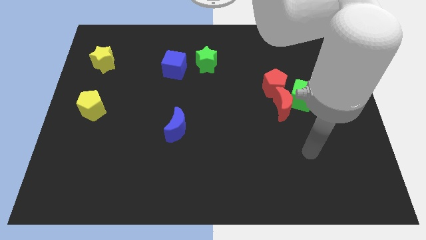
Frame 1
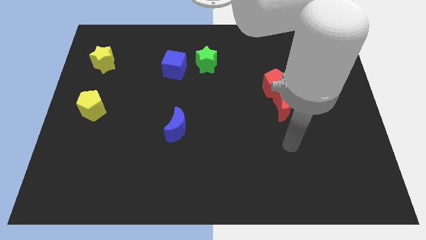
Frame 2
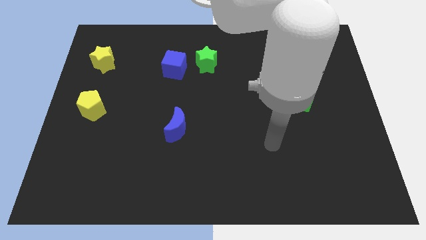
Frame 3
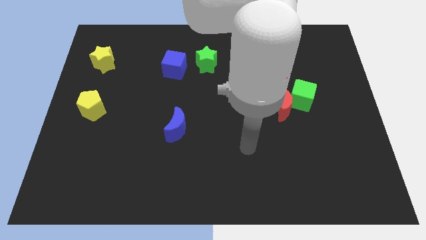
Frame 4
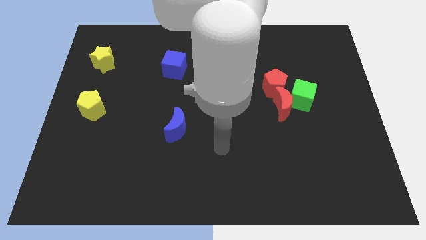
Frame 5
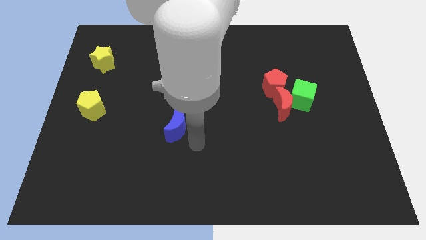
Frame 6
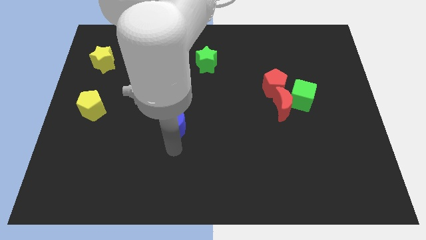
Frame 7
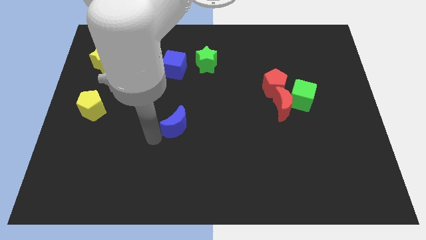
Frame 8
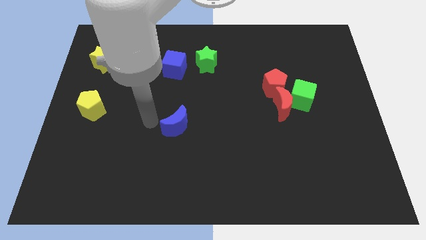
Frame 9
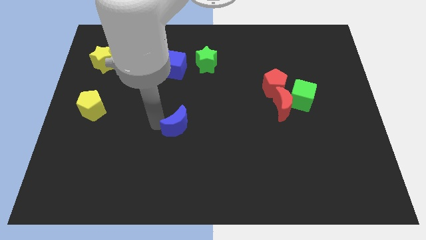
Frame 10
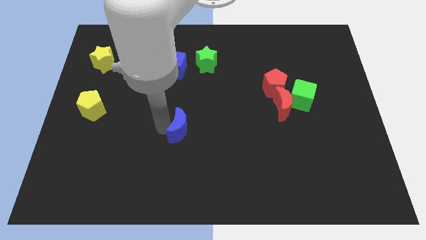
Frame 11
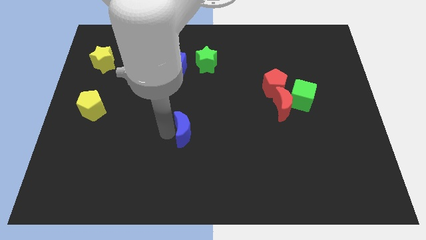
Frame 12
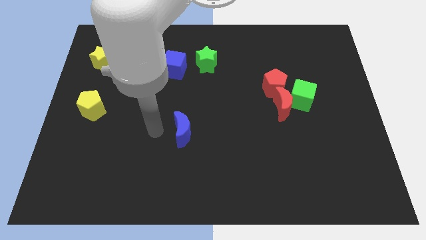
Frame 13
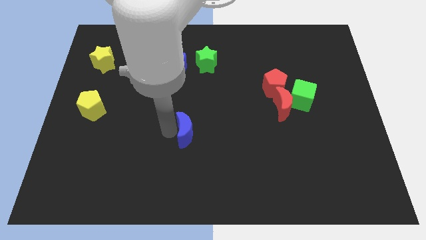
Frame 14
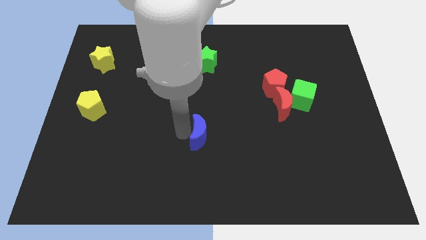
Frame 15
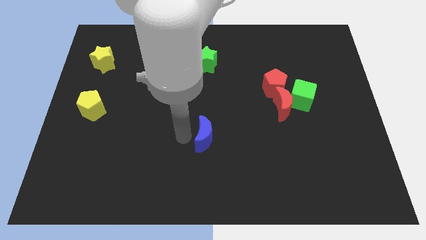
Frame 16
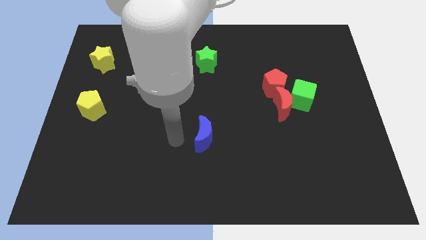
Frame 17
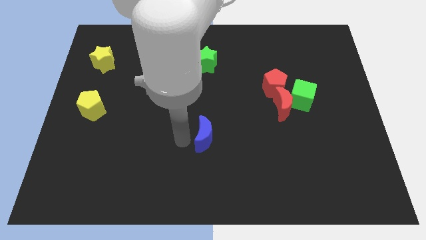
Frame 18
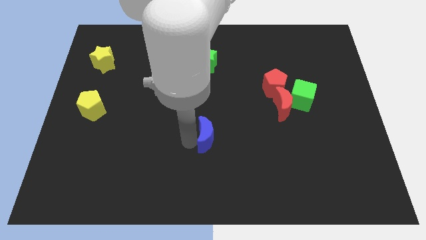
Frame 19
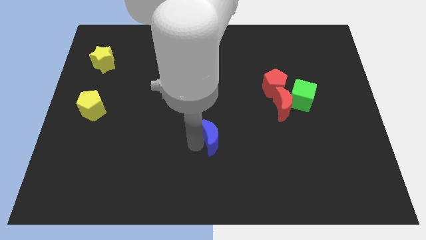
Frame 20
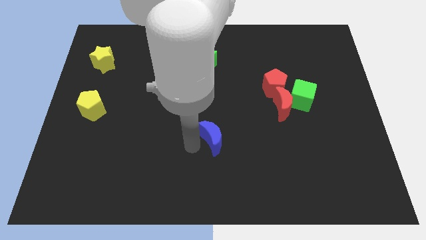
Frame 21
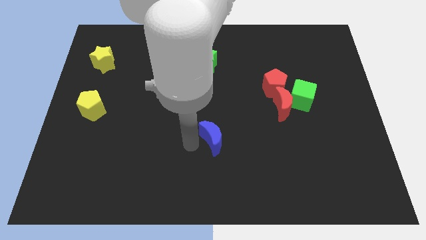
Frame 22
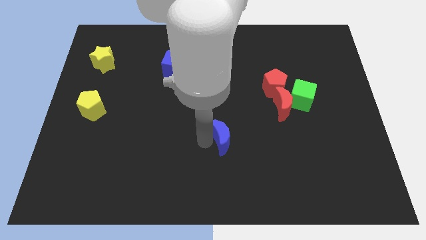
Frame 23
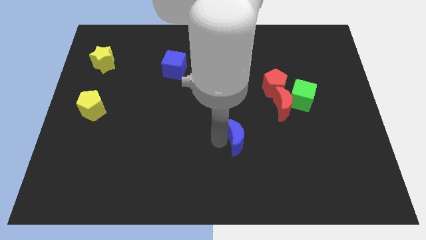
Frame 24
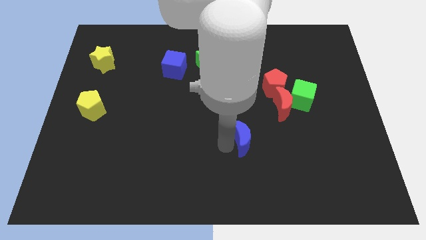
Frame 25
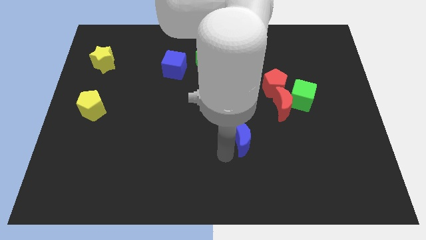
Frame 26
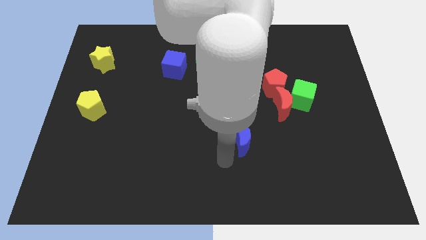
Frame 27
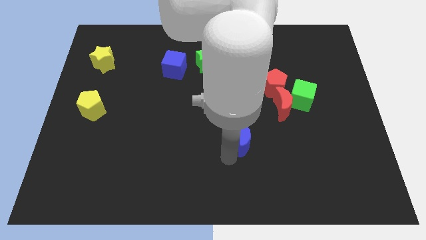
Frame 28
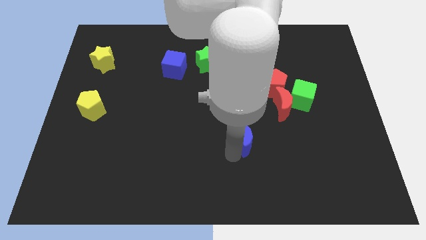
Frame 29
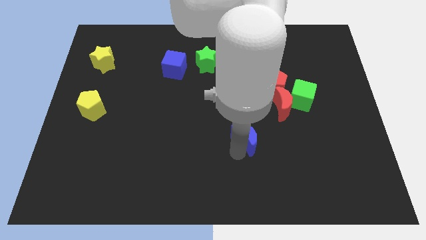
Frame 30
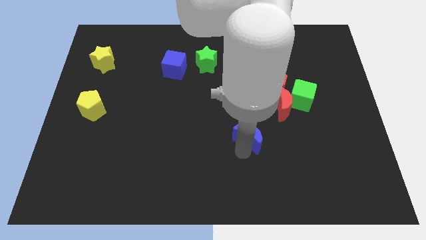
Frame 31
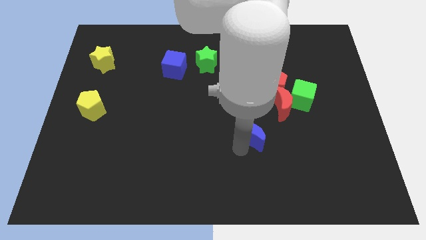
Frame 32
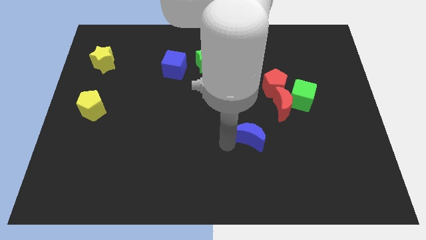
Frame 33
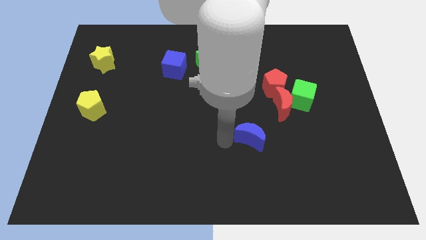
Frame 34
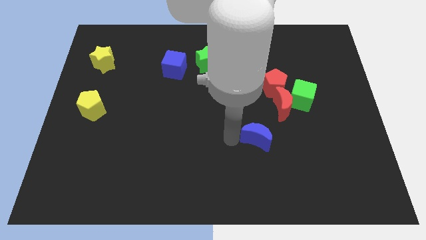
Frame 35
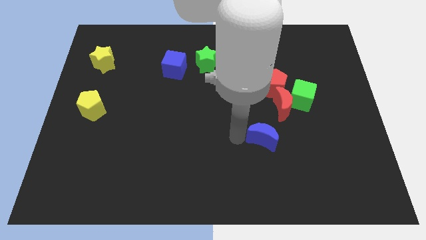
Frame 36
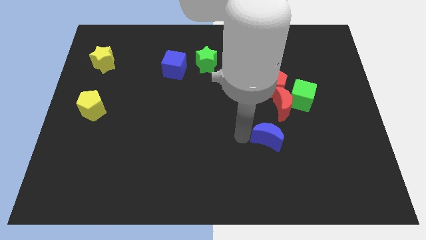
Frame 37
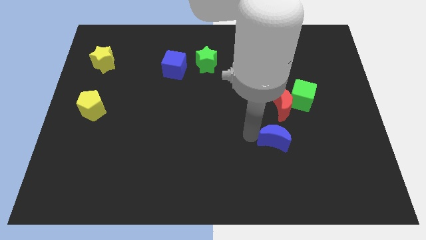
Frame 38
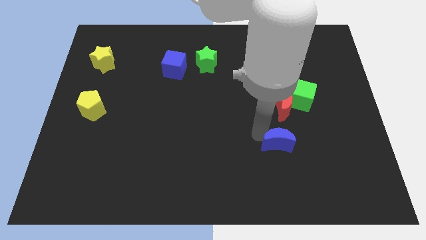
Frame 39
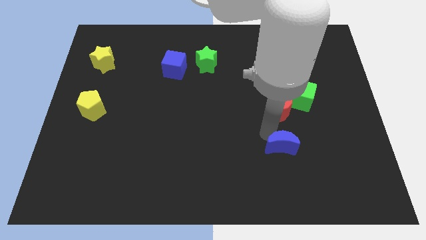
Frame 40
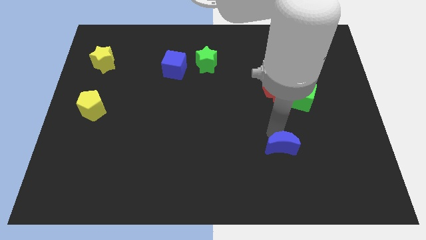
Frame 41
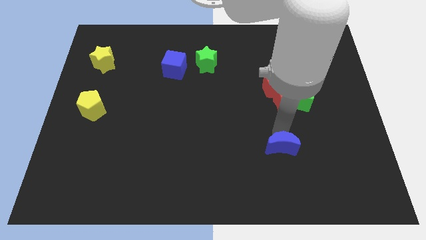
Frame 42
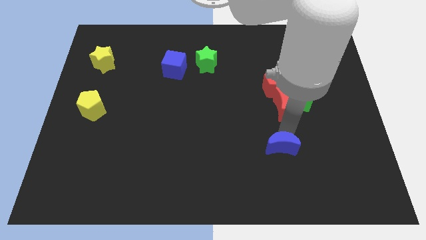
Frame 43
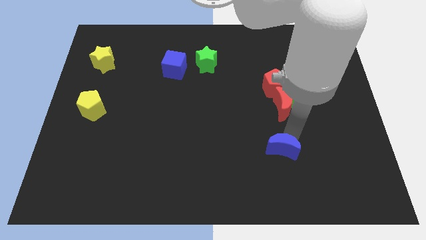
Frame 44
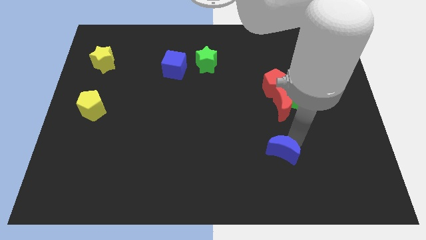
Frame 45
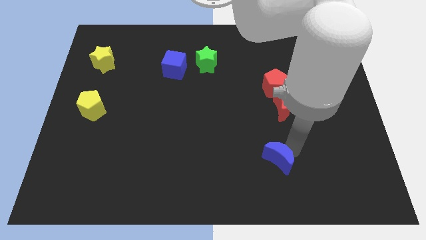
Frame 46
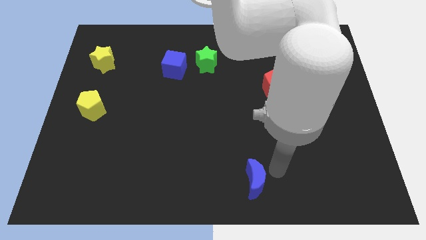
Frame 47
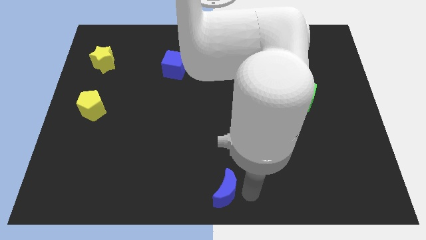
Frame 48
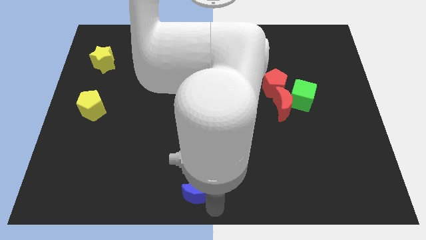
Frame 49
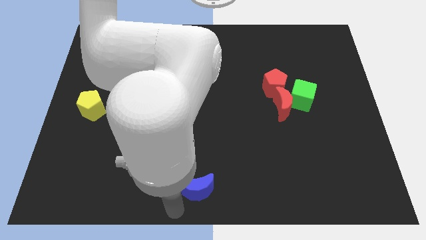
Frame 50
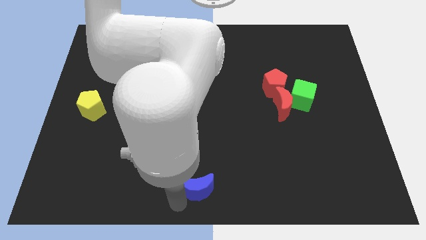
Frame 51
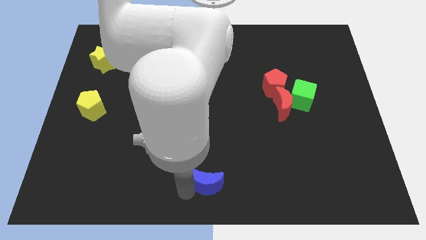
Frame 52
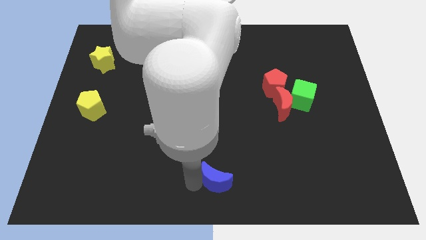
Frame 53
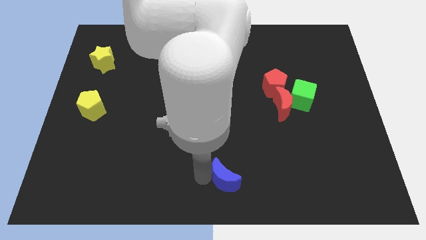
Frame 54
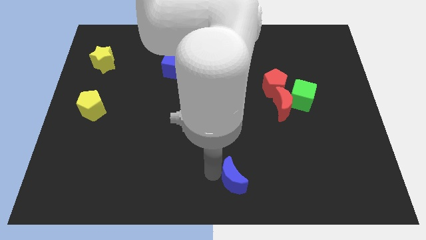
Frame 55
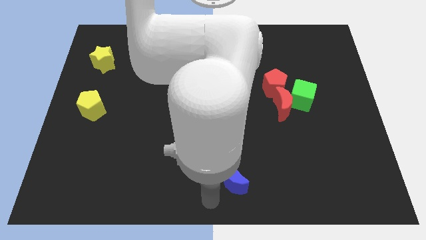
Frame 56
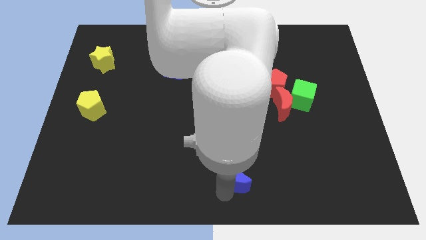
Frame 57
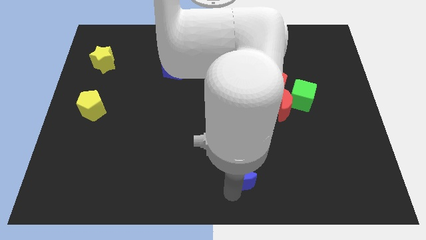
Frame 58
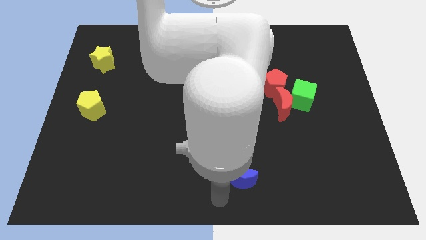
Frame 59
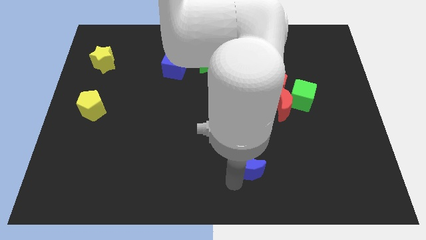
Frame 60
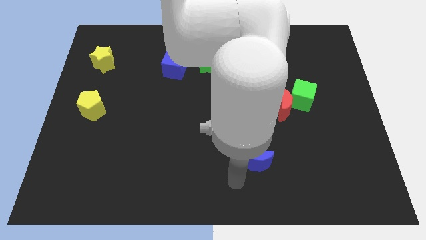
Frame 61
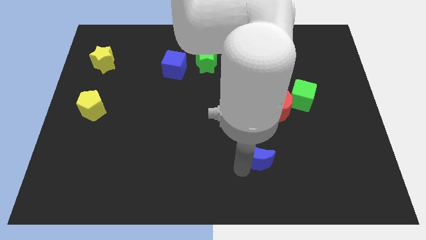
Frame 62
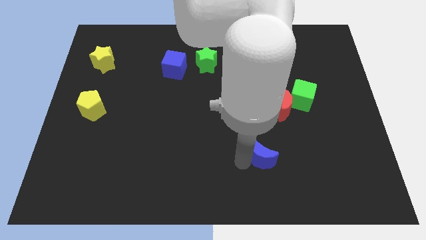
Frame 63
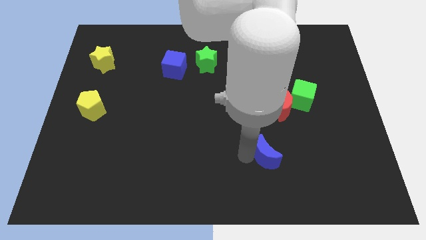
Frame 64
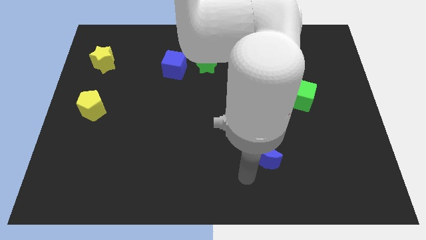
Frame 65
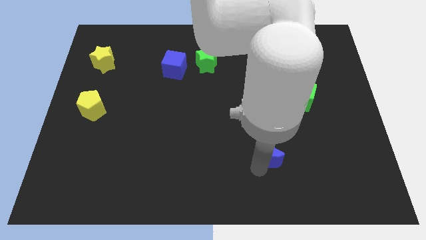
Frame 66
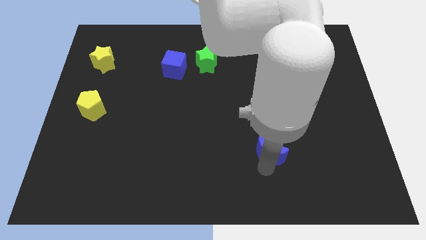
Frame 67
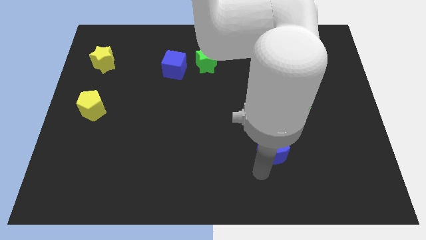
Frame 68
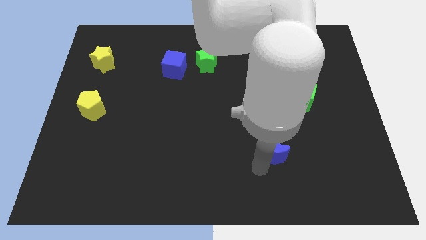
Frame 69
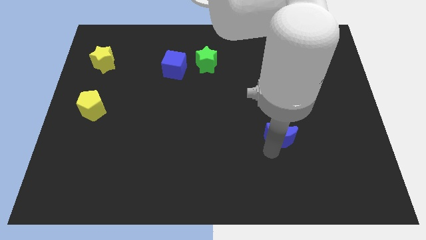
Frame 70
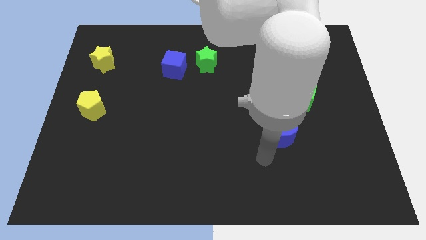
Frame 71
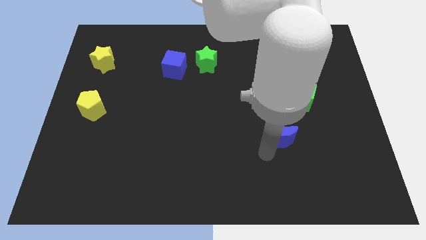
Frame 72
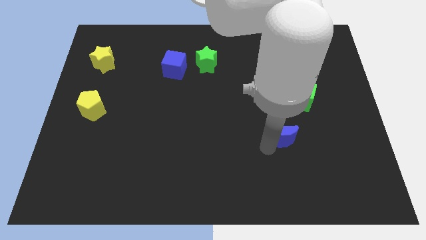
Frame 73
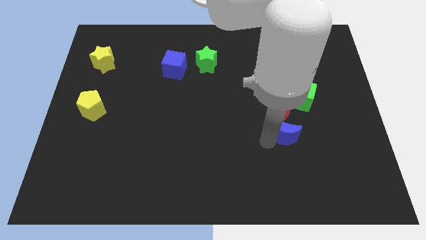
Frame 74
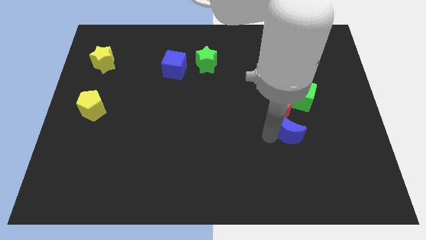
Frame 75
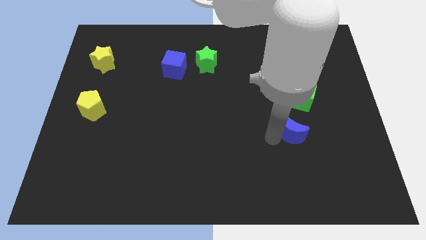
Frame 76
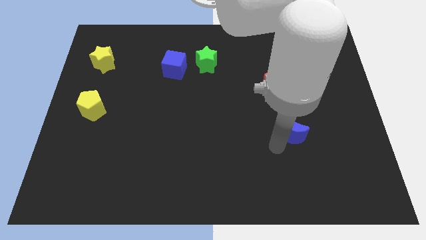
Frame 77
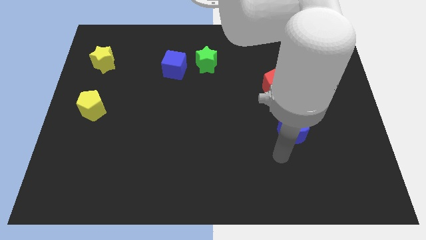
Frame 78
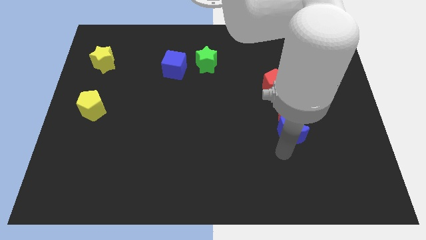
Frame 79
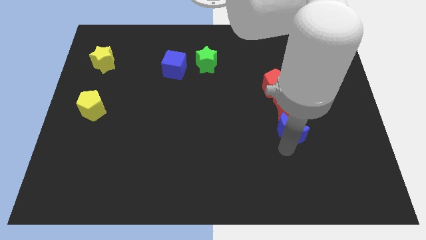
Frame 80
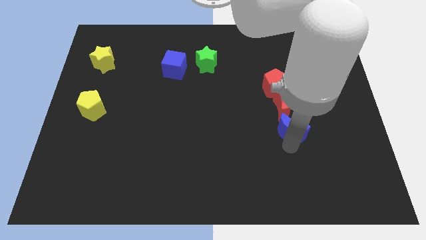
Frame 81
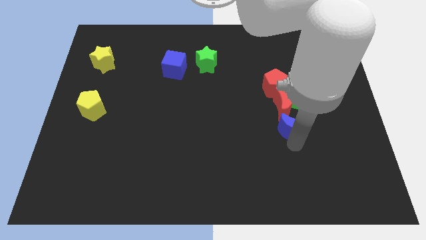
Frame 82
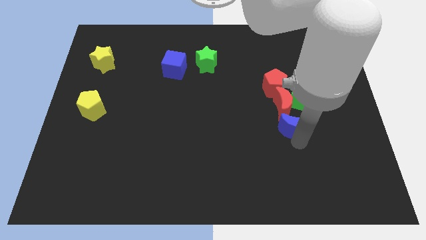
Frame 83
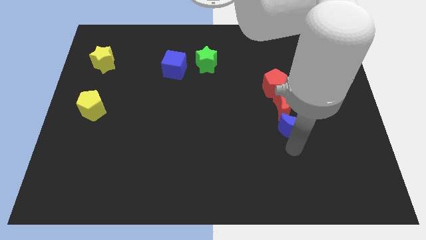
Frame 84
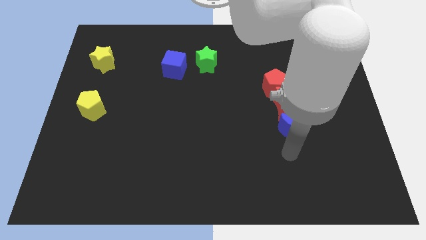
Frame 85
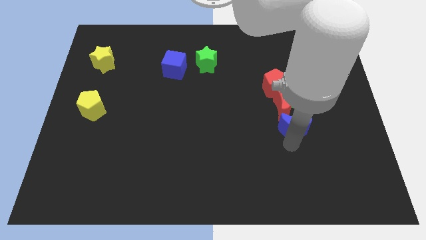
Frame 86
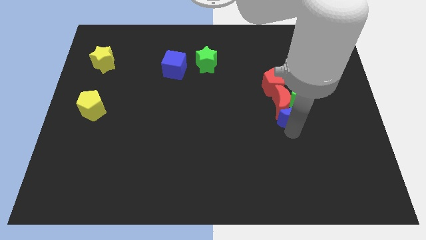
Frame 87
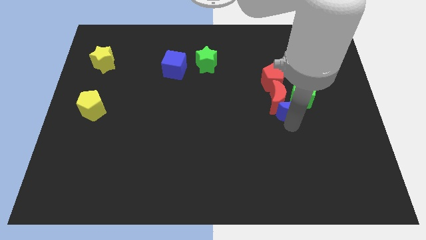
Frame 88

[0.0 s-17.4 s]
put the blue moon to the green cube
